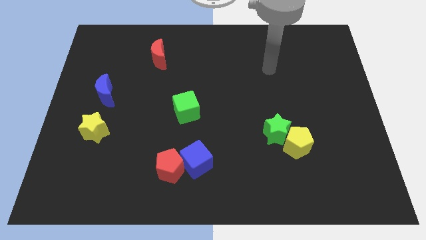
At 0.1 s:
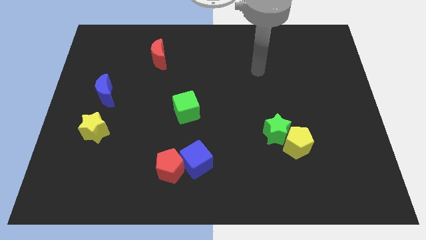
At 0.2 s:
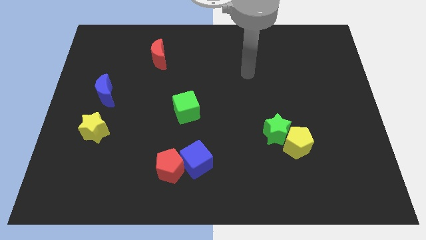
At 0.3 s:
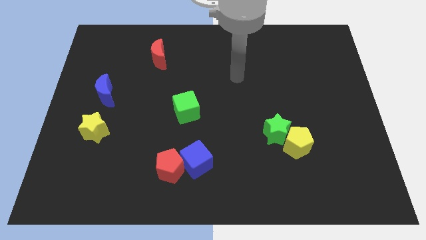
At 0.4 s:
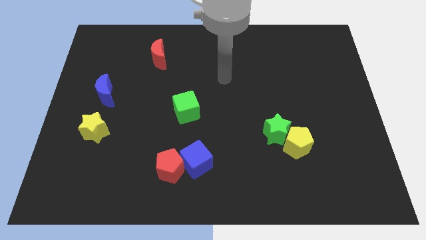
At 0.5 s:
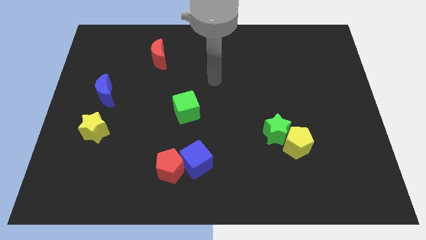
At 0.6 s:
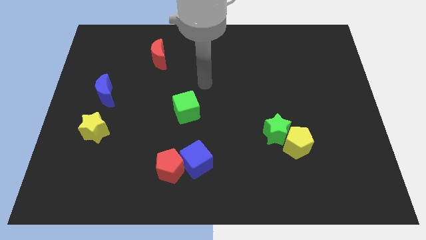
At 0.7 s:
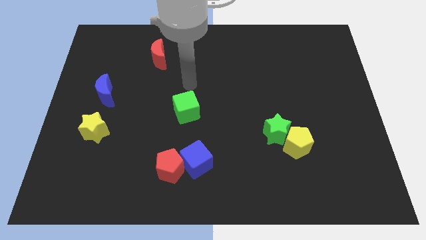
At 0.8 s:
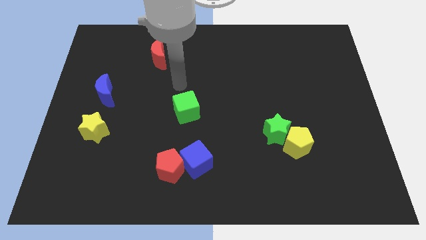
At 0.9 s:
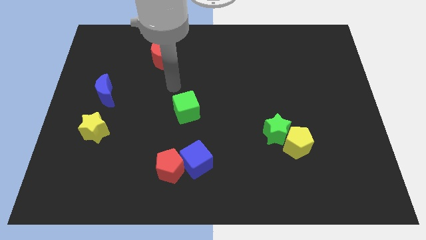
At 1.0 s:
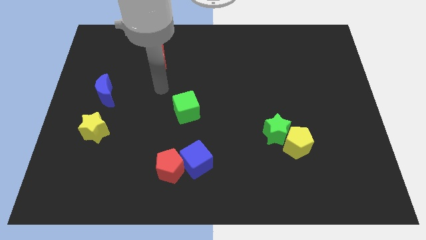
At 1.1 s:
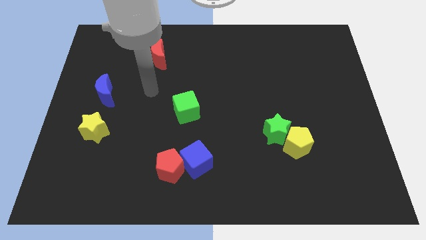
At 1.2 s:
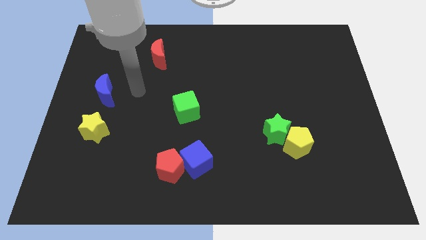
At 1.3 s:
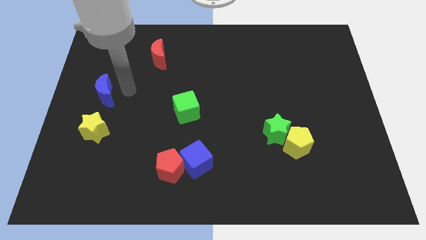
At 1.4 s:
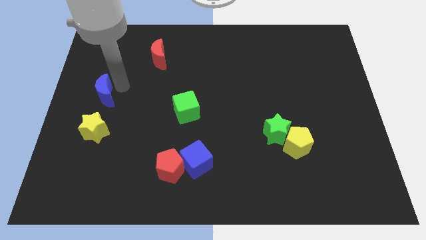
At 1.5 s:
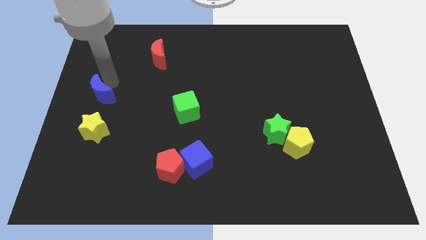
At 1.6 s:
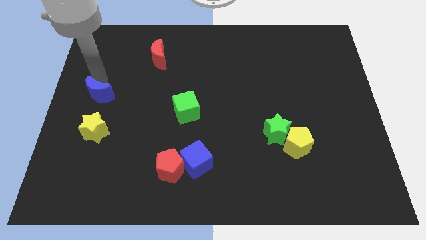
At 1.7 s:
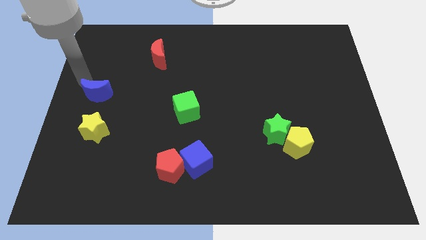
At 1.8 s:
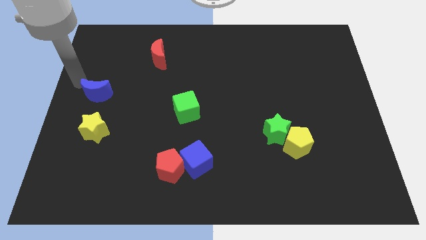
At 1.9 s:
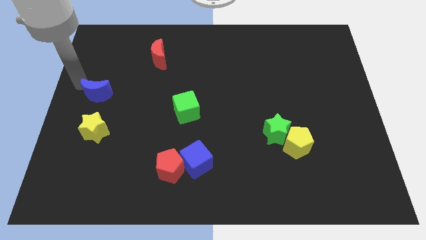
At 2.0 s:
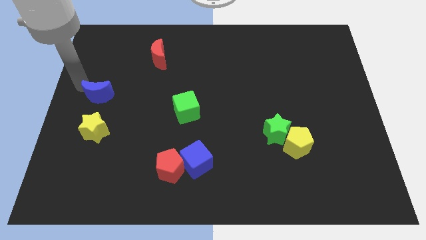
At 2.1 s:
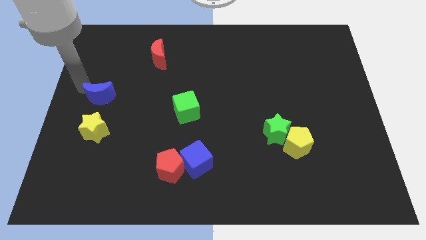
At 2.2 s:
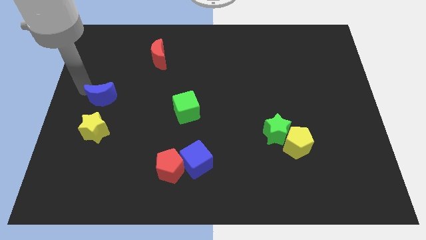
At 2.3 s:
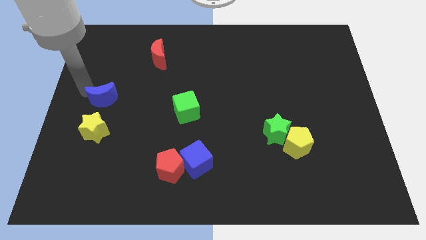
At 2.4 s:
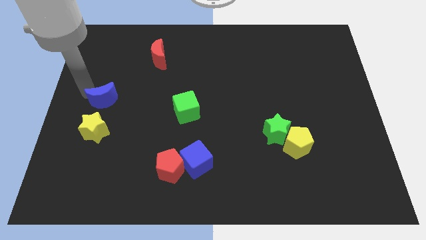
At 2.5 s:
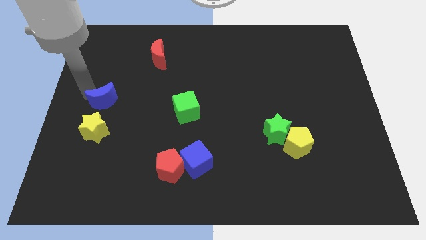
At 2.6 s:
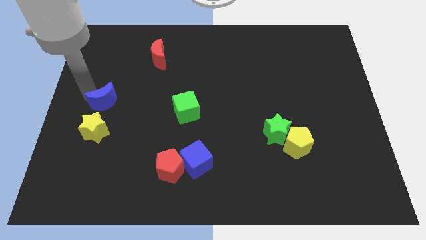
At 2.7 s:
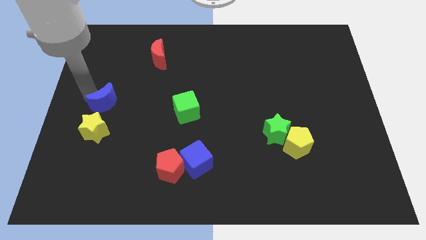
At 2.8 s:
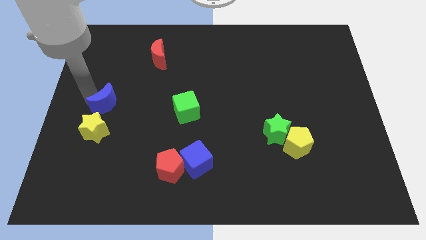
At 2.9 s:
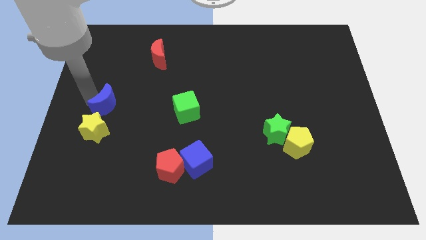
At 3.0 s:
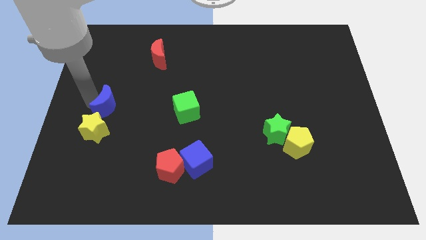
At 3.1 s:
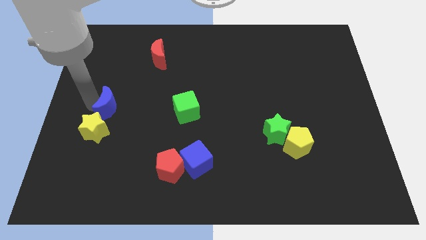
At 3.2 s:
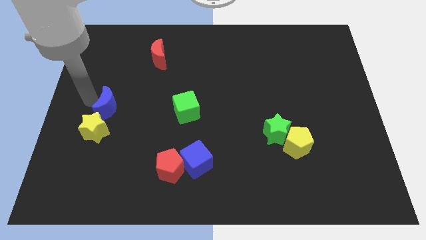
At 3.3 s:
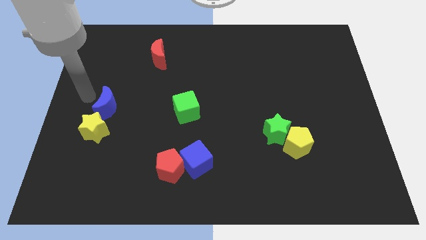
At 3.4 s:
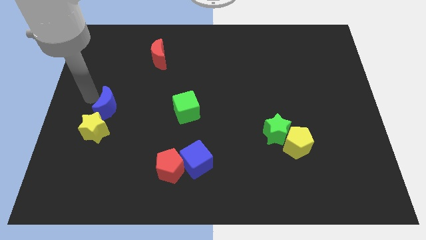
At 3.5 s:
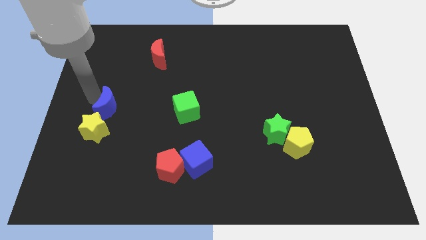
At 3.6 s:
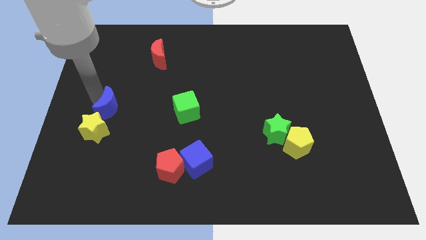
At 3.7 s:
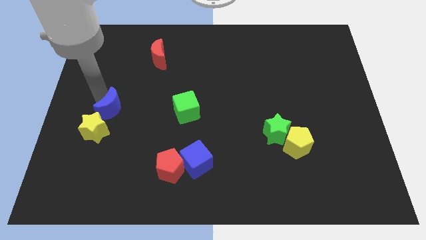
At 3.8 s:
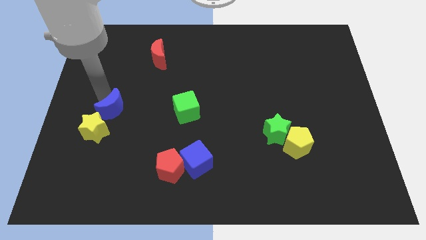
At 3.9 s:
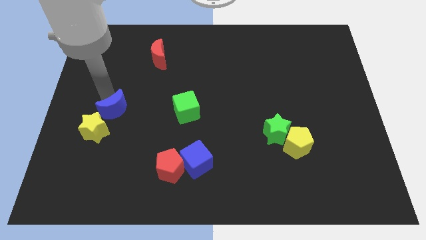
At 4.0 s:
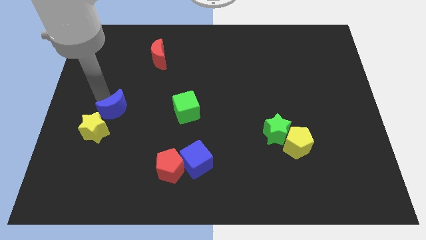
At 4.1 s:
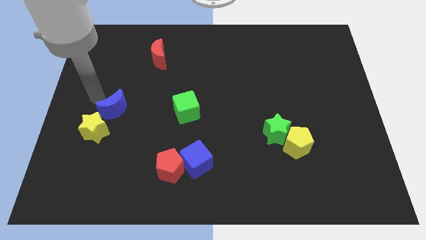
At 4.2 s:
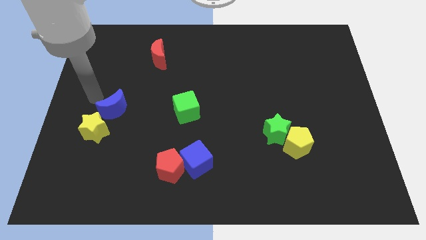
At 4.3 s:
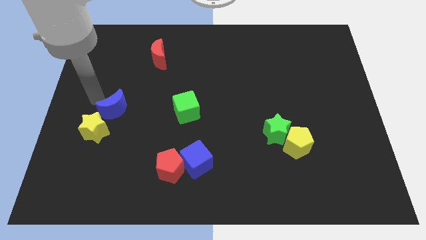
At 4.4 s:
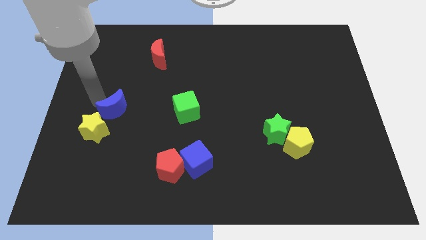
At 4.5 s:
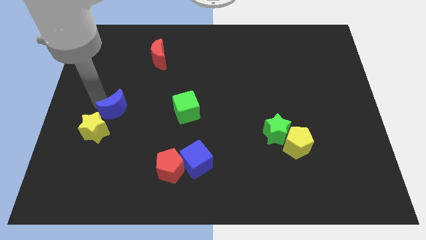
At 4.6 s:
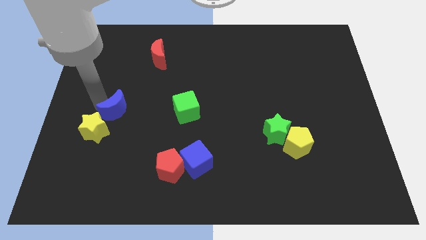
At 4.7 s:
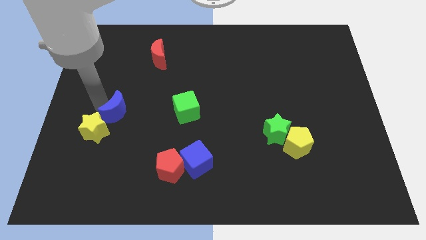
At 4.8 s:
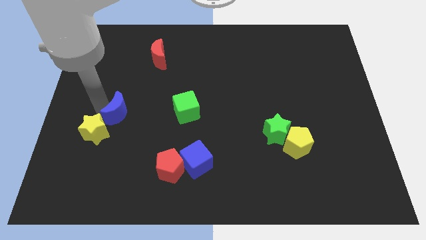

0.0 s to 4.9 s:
push the blue moon a bit downwards and right

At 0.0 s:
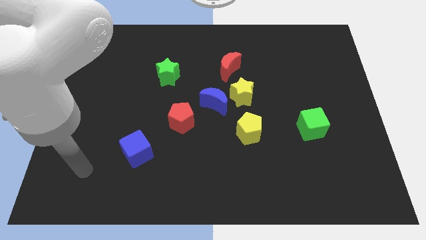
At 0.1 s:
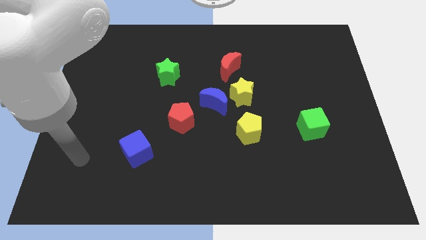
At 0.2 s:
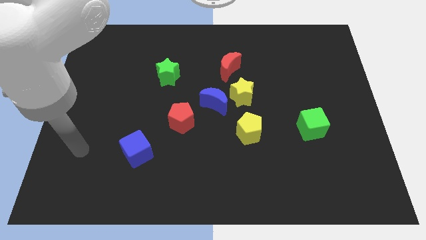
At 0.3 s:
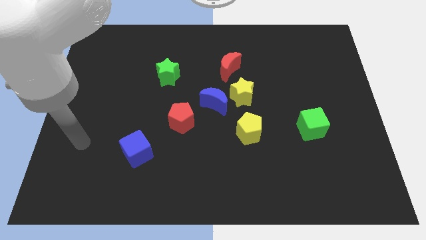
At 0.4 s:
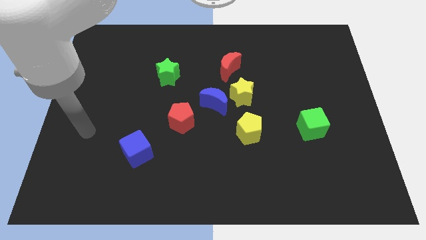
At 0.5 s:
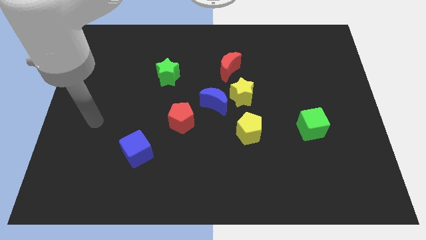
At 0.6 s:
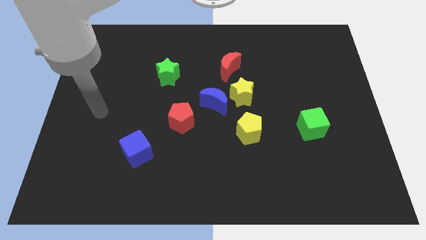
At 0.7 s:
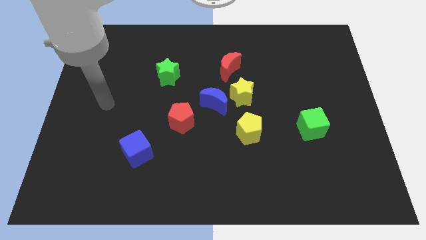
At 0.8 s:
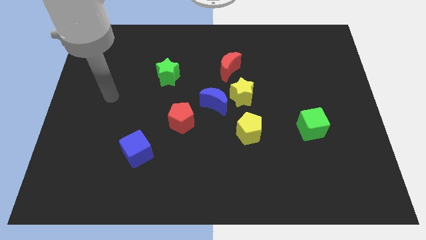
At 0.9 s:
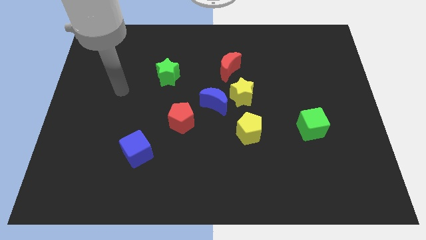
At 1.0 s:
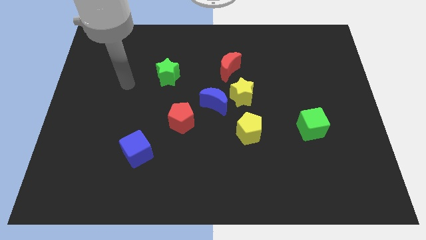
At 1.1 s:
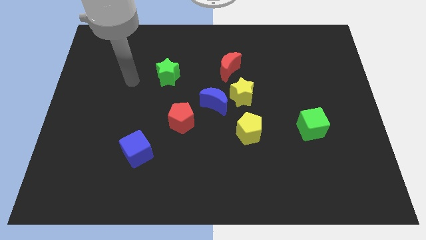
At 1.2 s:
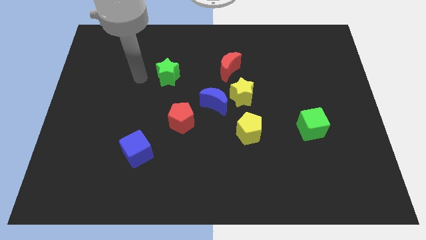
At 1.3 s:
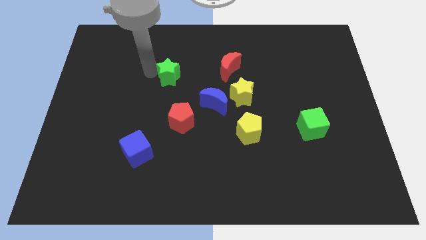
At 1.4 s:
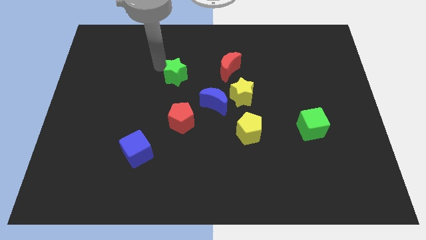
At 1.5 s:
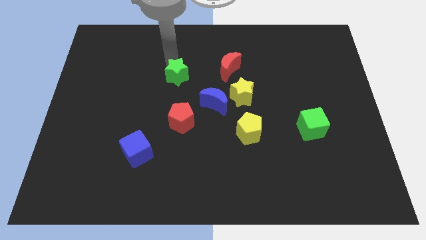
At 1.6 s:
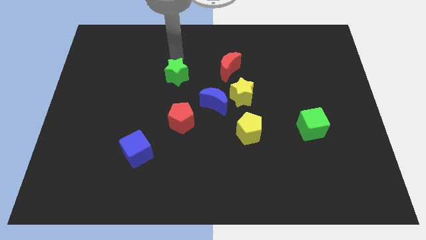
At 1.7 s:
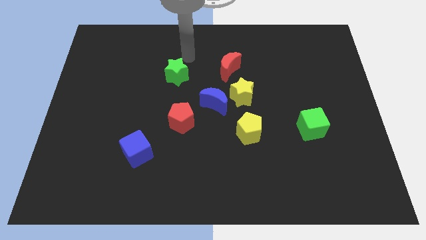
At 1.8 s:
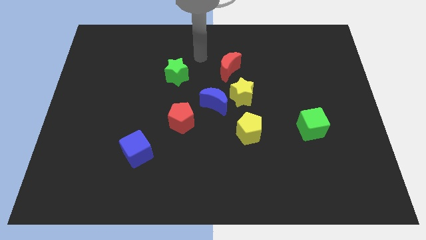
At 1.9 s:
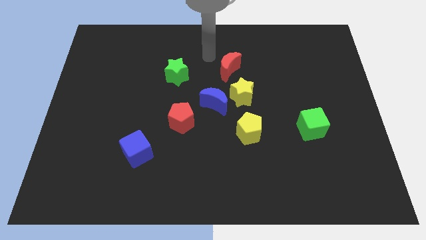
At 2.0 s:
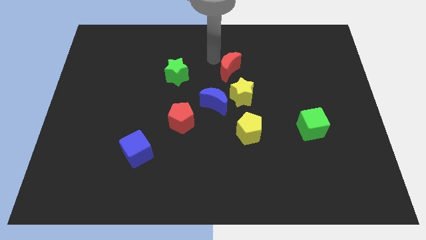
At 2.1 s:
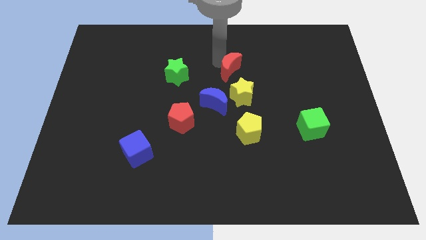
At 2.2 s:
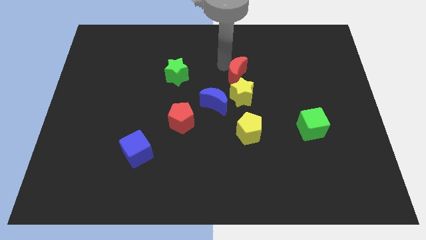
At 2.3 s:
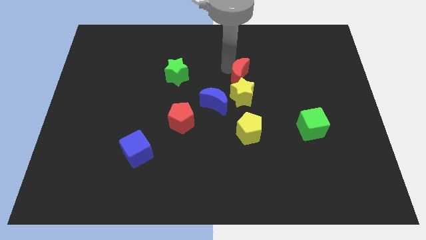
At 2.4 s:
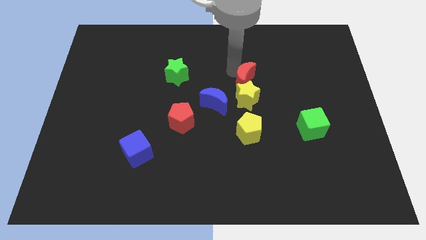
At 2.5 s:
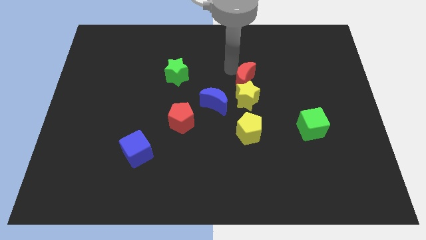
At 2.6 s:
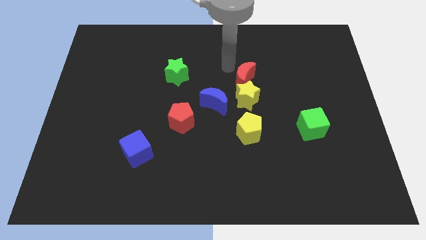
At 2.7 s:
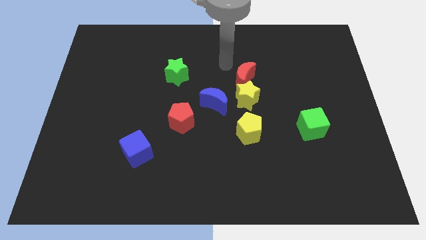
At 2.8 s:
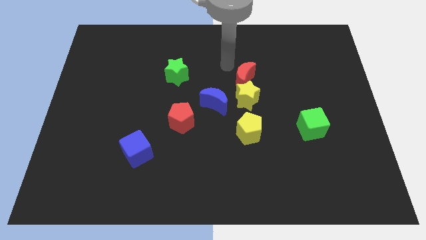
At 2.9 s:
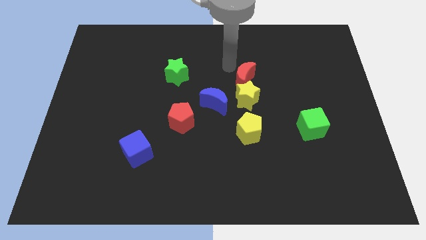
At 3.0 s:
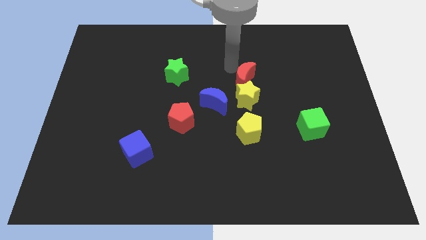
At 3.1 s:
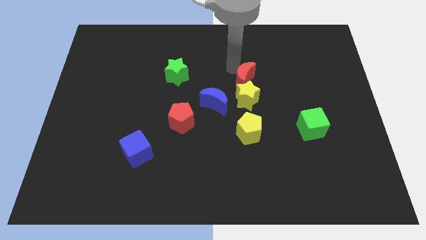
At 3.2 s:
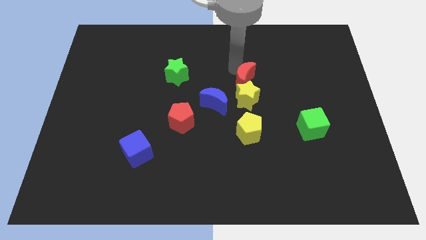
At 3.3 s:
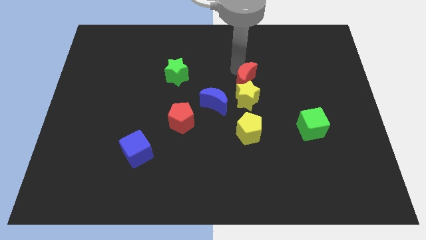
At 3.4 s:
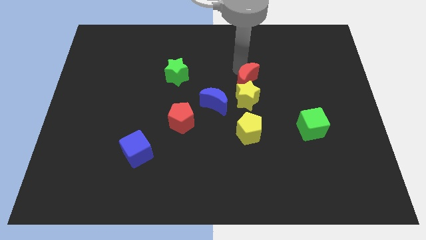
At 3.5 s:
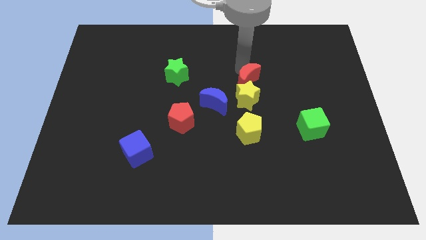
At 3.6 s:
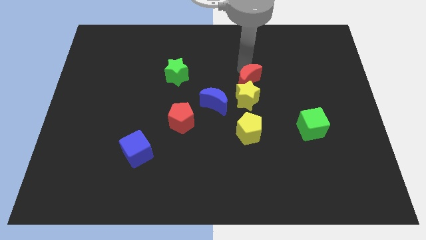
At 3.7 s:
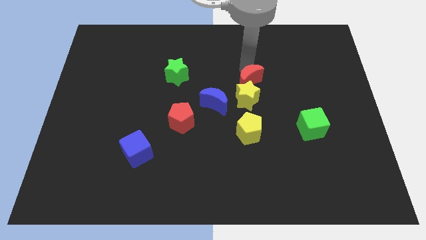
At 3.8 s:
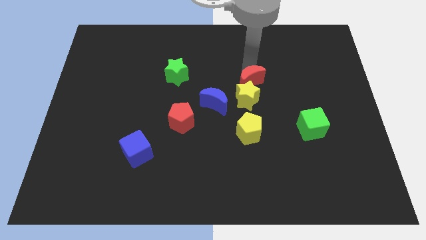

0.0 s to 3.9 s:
slightly push the red moon downwards and then to the right
